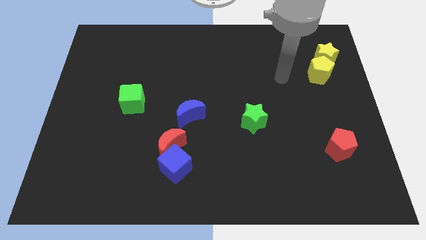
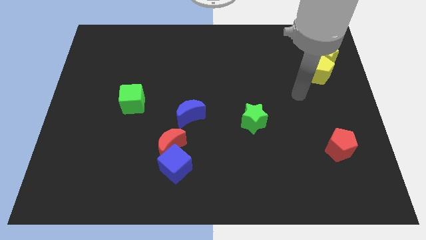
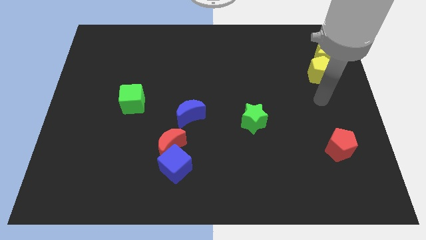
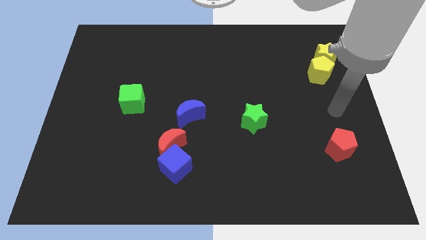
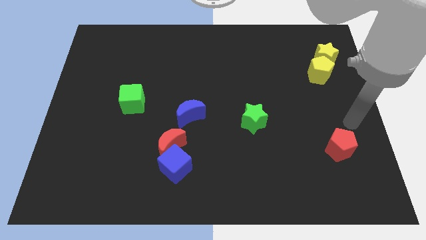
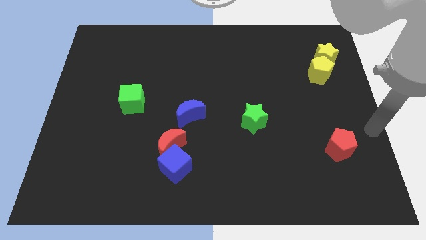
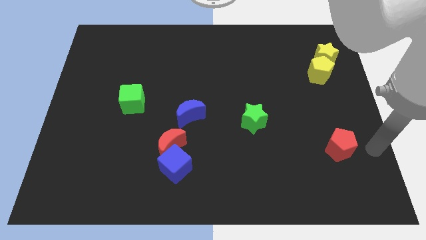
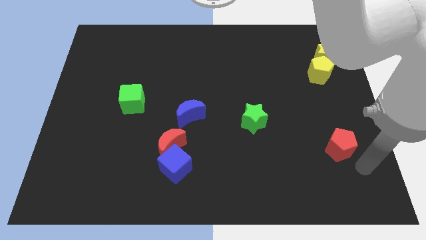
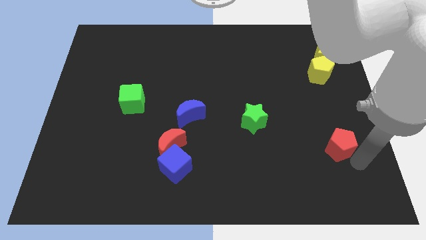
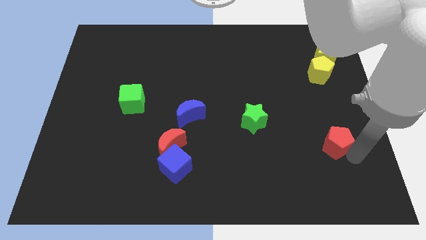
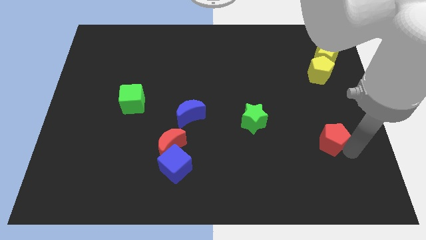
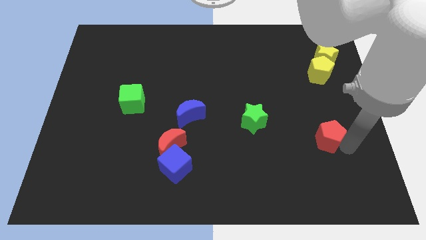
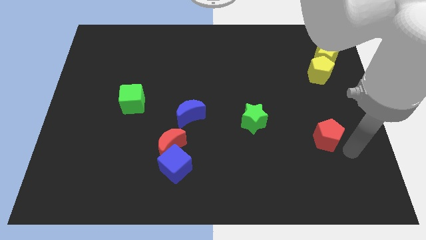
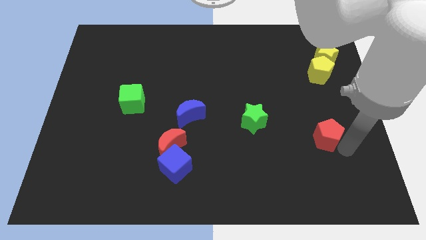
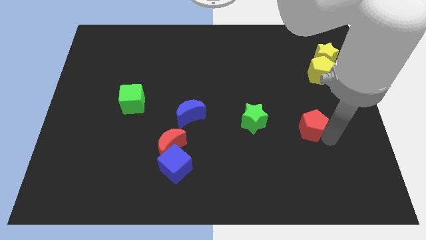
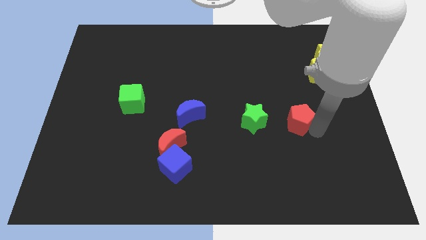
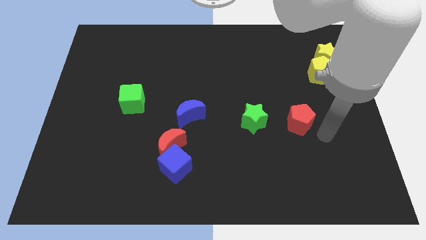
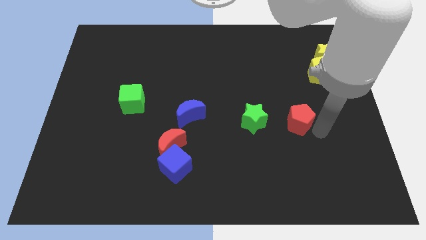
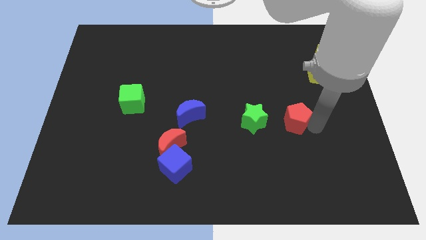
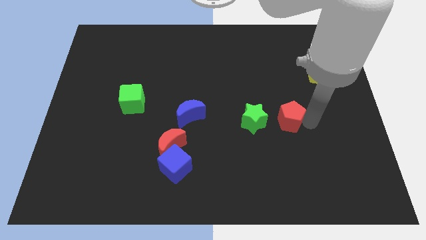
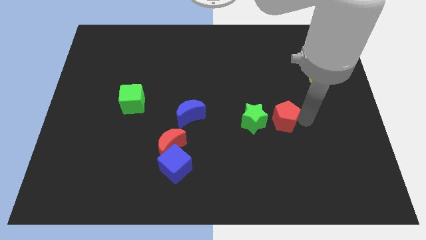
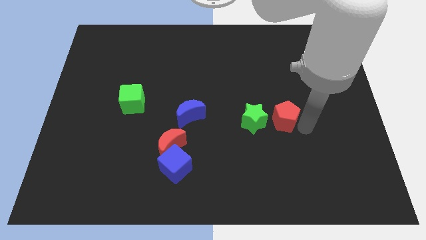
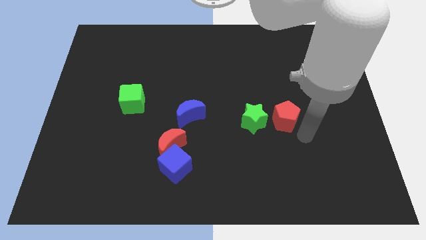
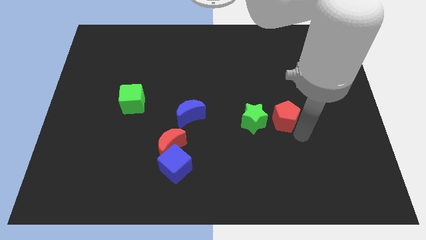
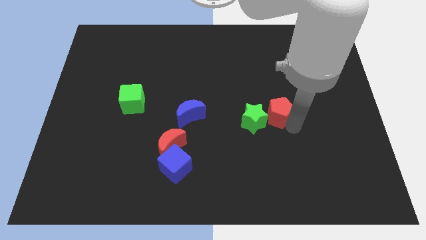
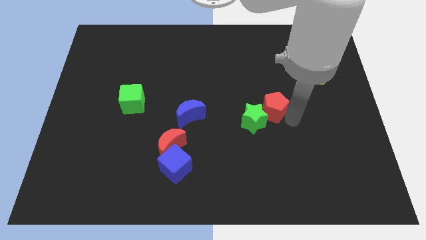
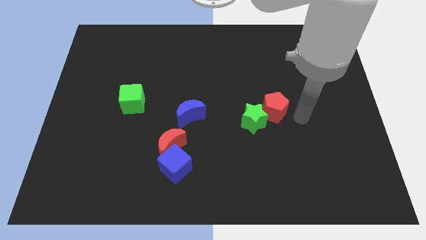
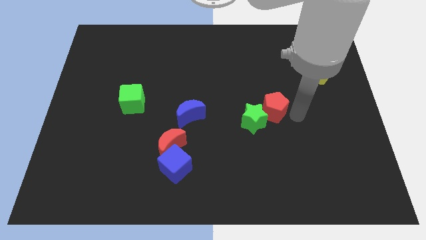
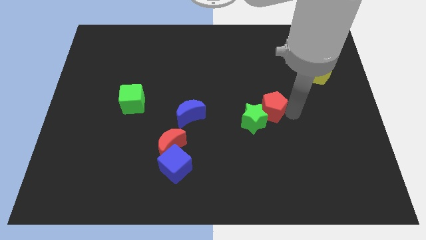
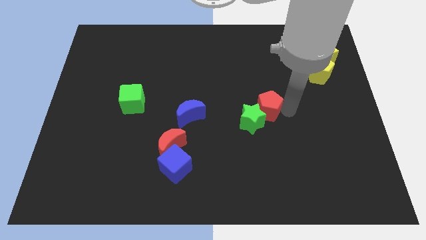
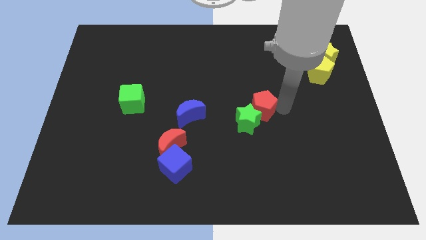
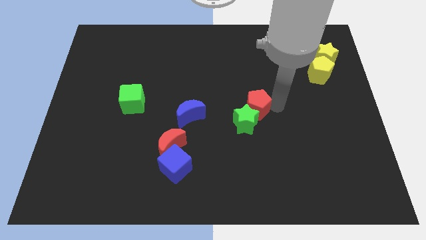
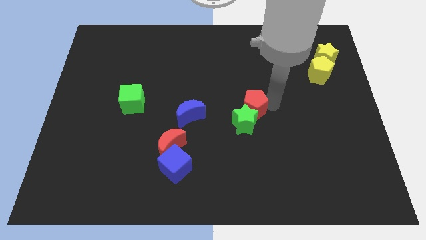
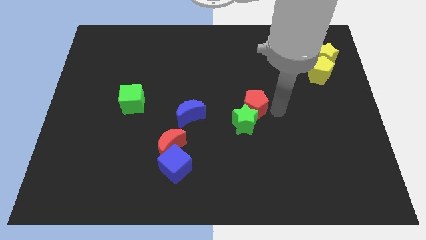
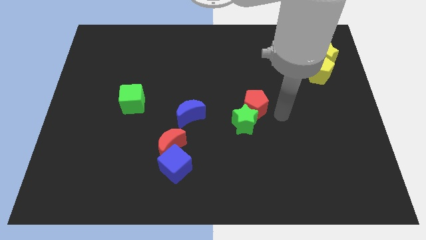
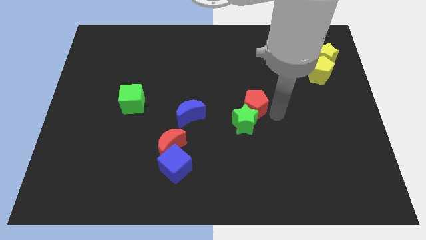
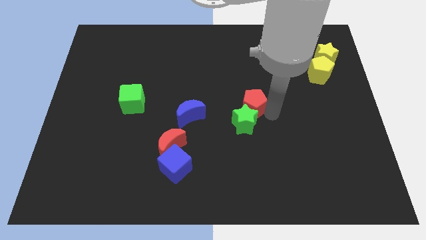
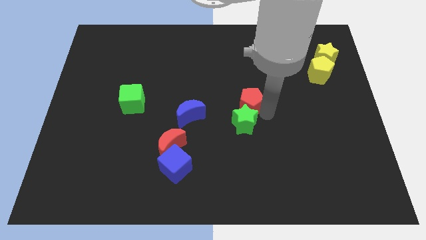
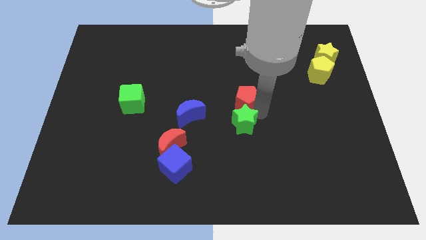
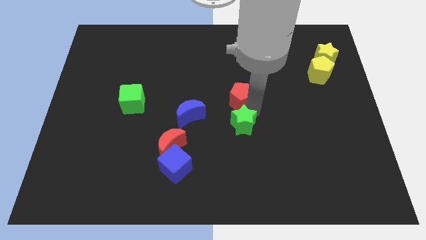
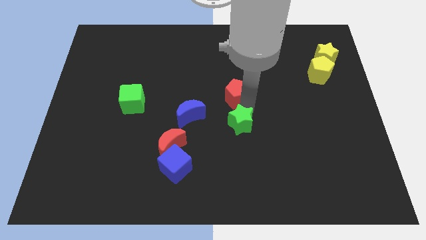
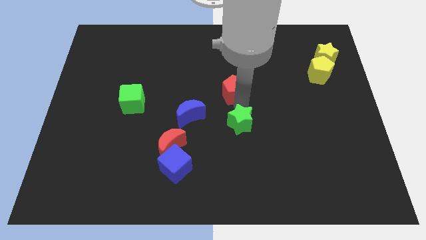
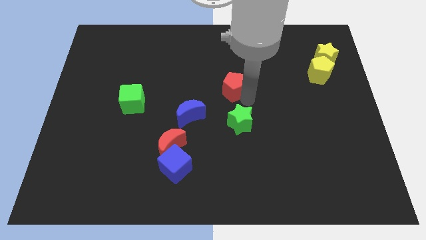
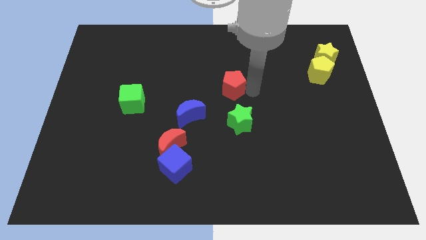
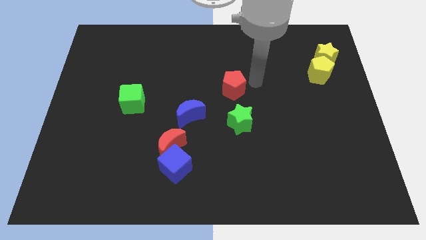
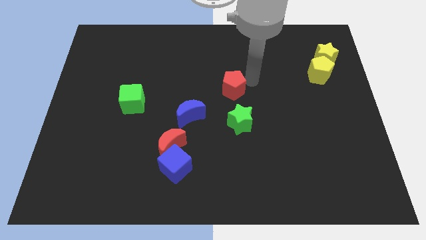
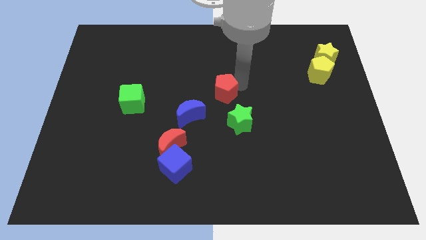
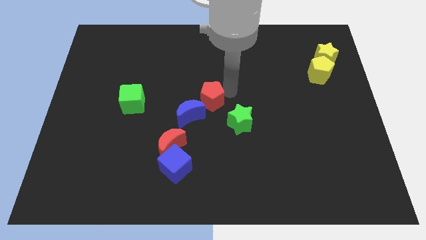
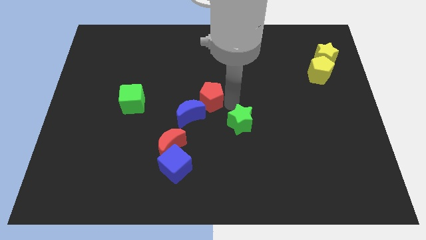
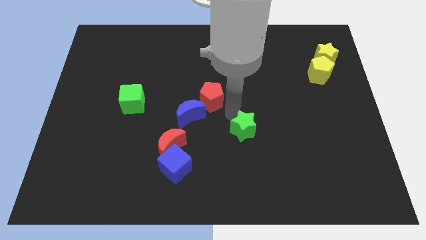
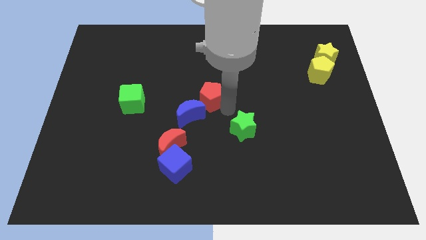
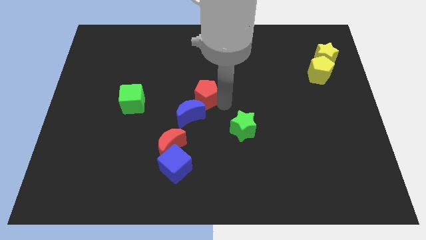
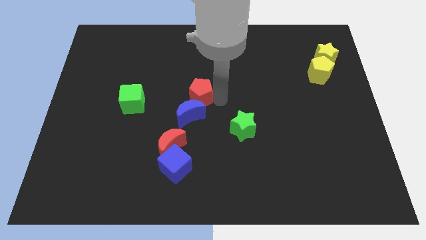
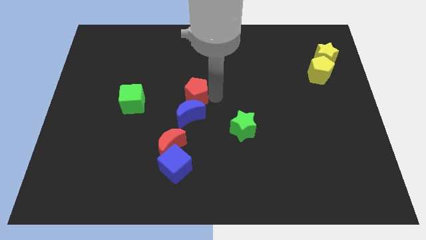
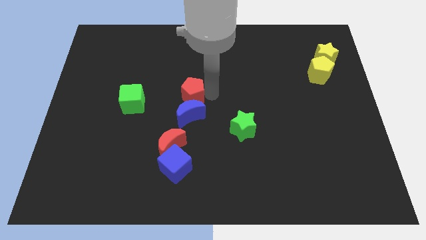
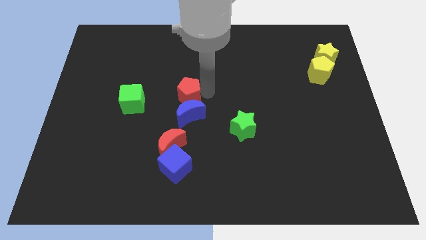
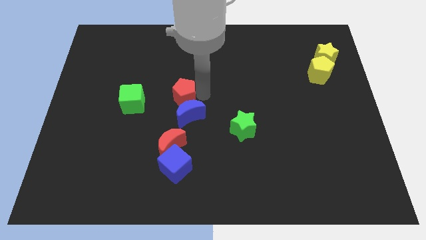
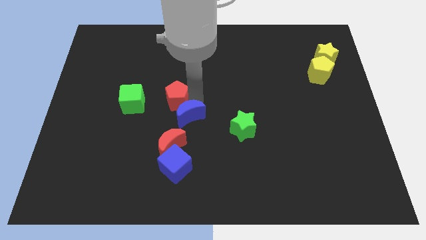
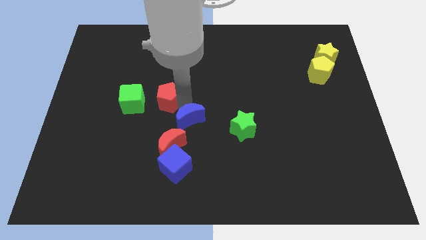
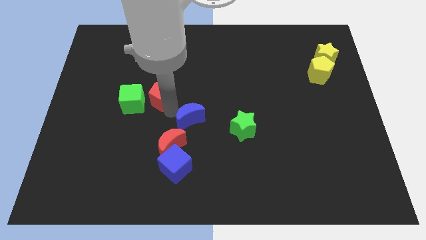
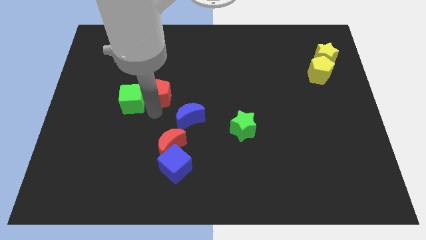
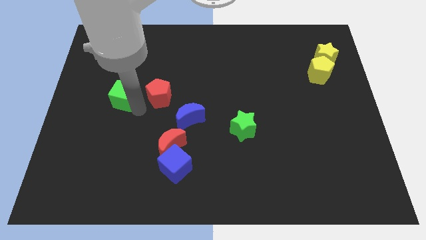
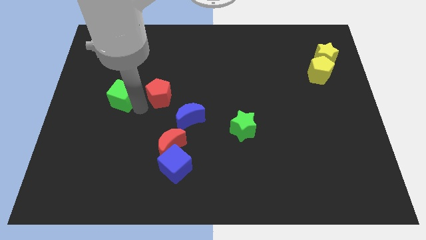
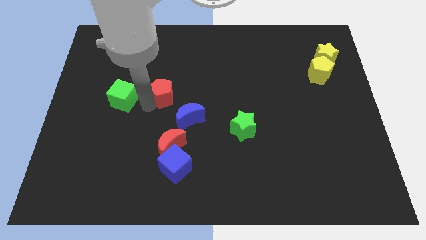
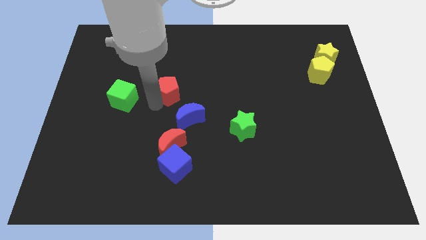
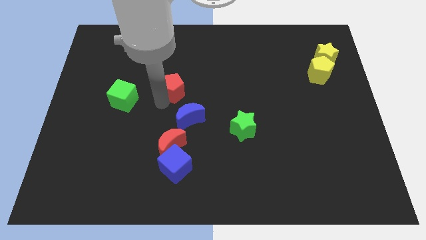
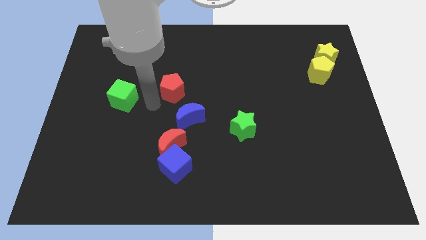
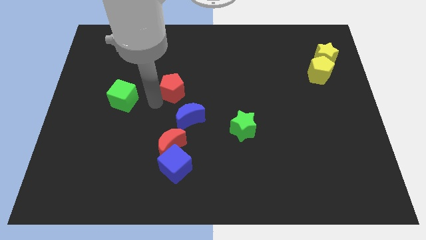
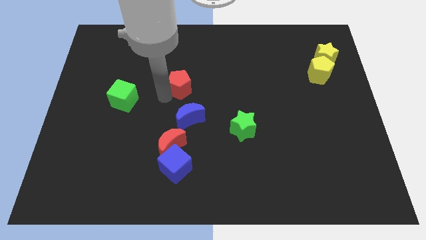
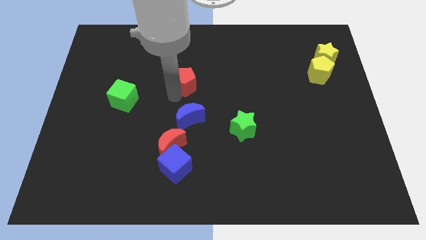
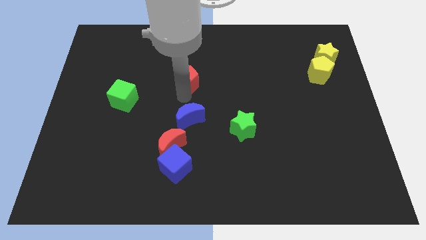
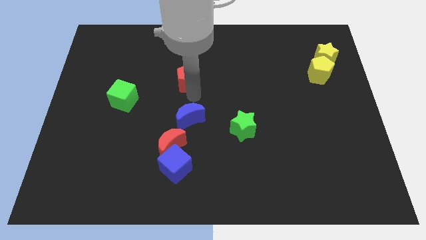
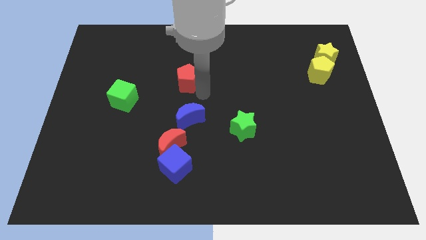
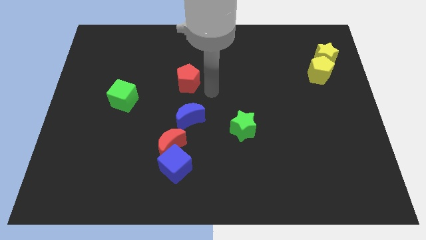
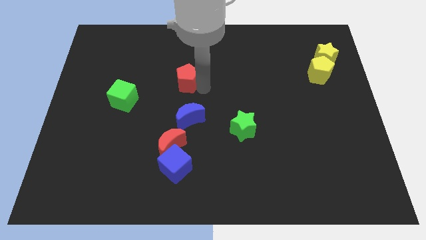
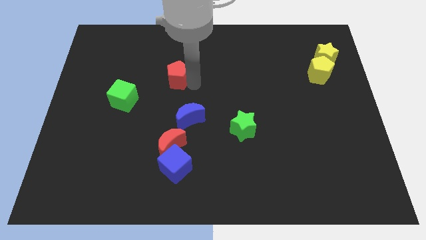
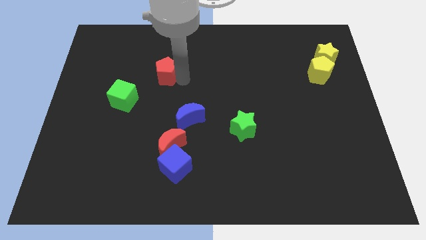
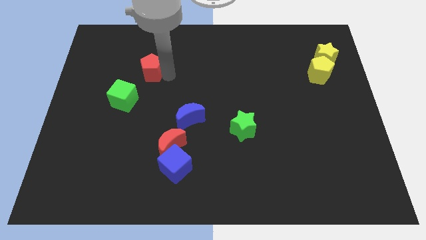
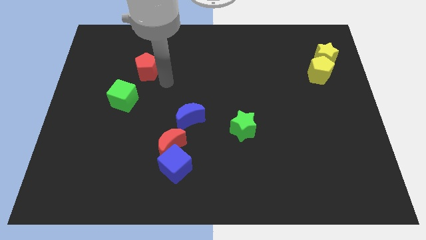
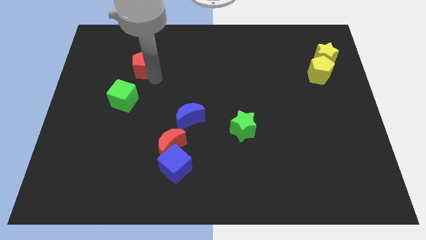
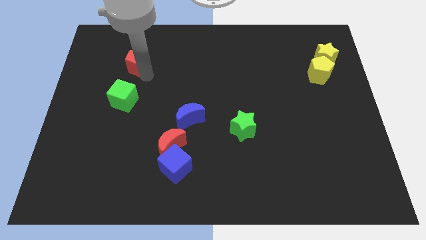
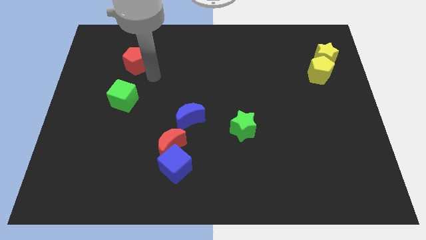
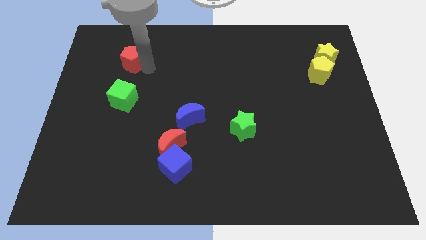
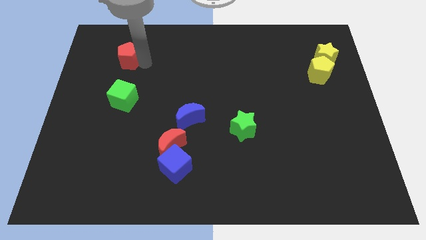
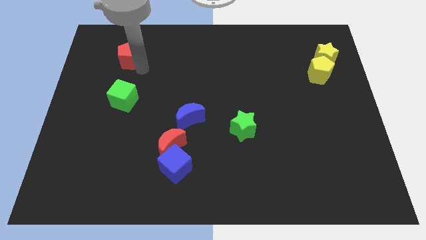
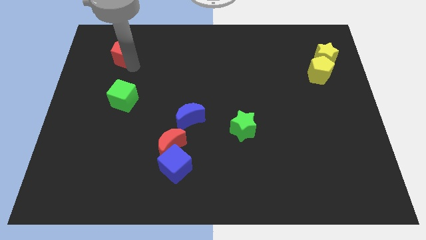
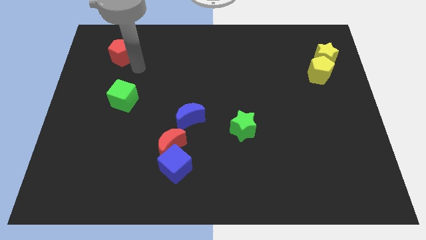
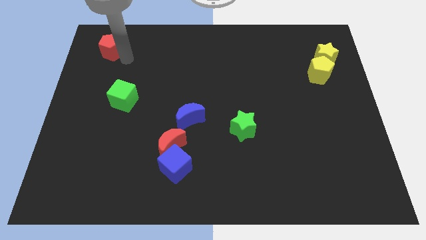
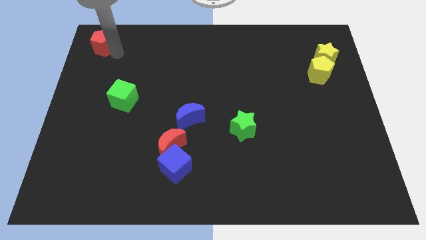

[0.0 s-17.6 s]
move the red pentagon to the upper left corner
